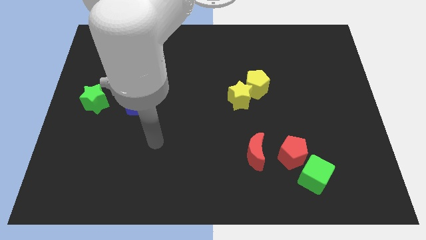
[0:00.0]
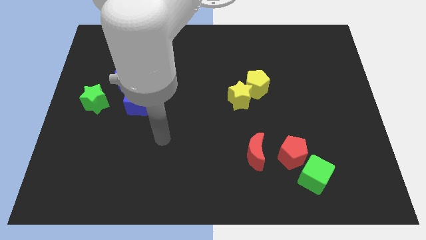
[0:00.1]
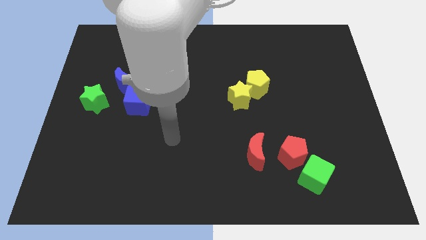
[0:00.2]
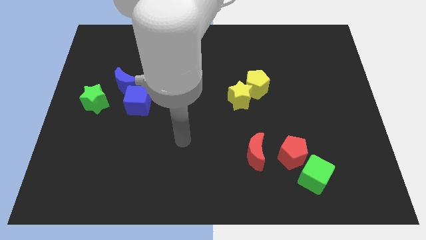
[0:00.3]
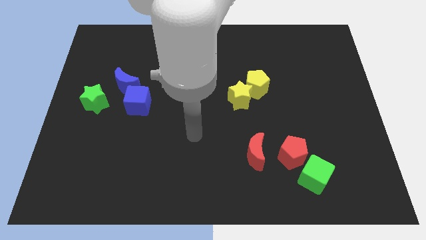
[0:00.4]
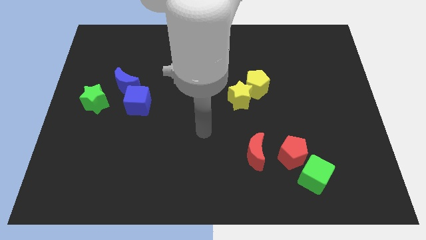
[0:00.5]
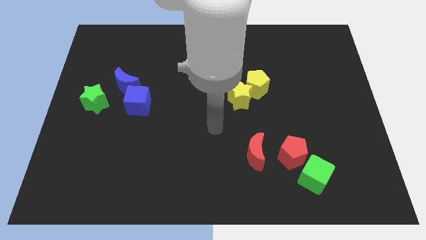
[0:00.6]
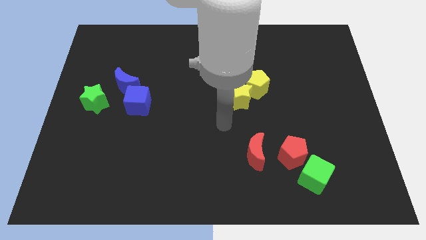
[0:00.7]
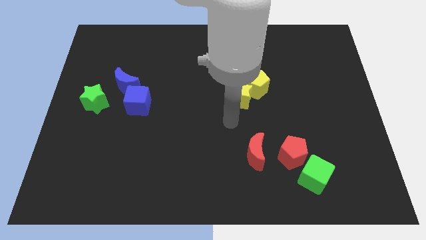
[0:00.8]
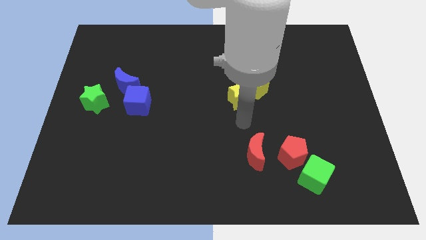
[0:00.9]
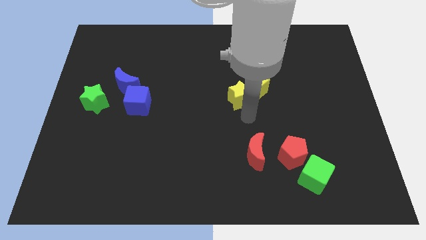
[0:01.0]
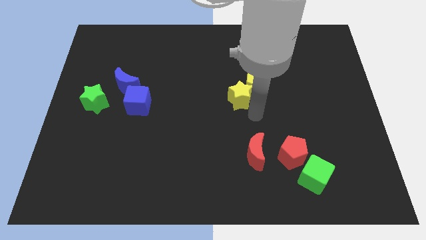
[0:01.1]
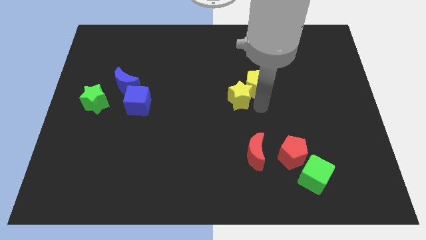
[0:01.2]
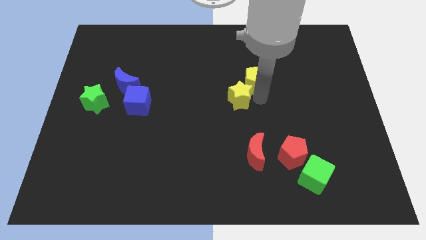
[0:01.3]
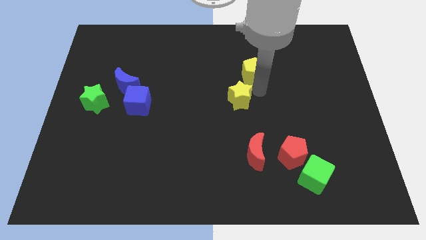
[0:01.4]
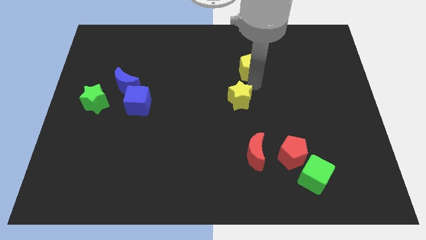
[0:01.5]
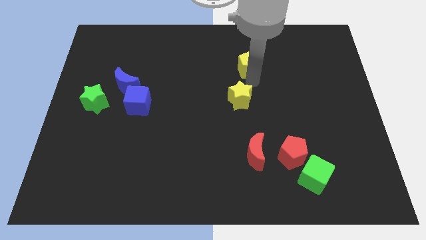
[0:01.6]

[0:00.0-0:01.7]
move the yellow star away from the yellow pentagon

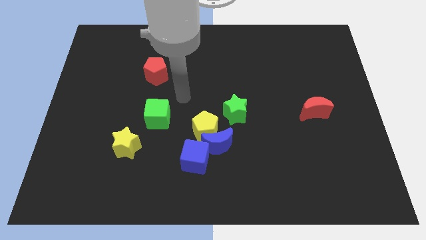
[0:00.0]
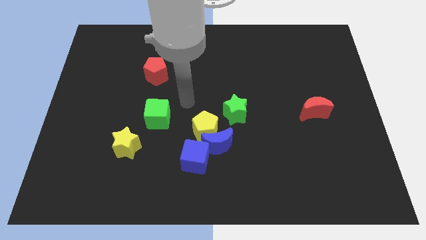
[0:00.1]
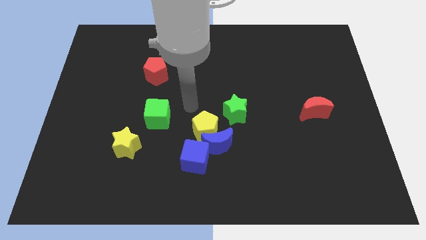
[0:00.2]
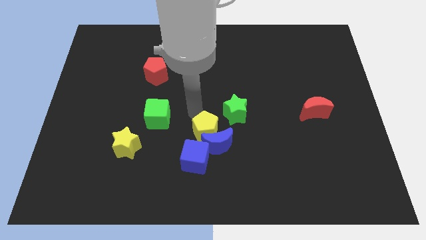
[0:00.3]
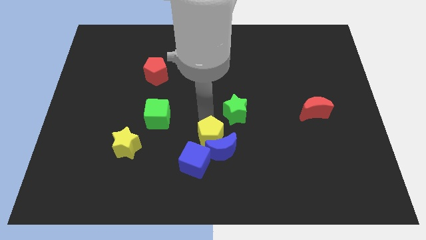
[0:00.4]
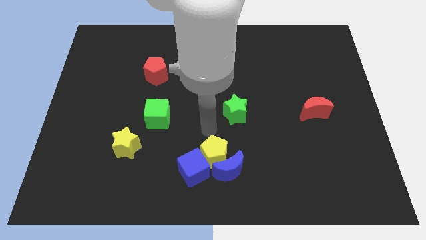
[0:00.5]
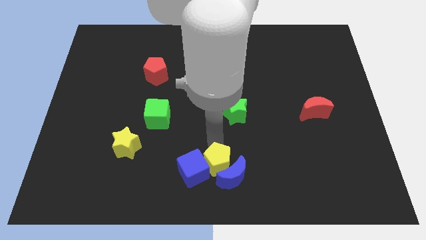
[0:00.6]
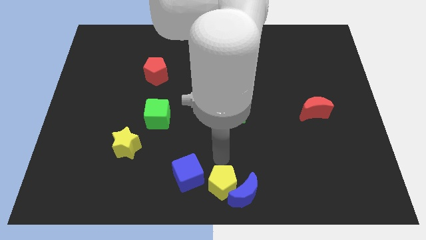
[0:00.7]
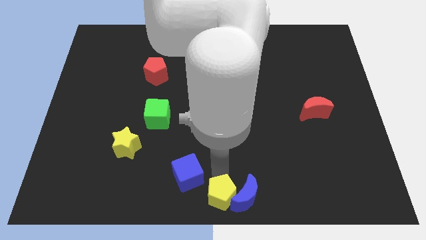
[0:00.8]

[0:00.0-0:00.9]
separate the blue cube from the blue moon and yellow pentagon

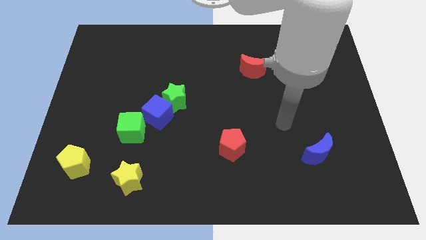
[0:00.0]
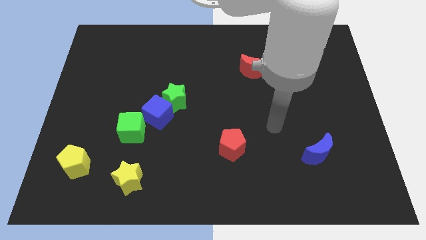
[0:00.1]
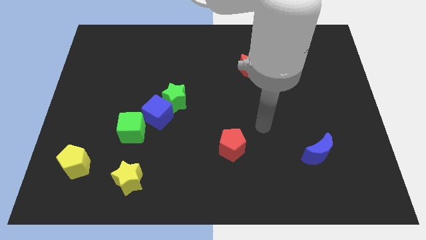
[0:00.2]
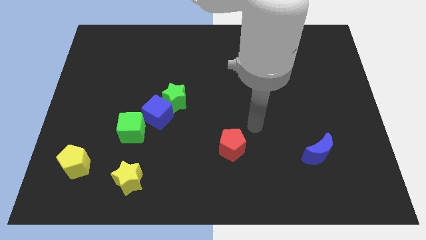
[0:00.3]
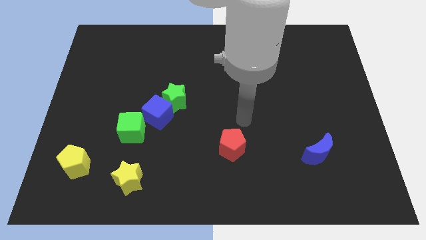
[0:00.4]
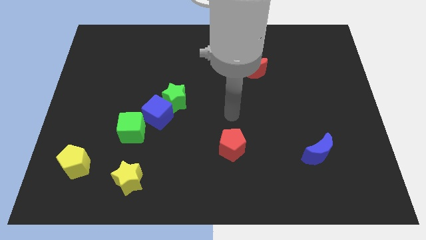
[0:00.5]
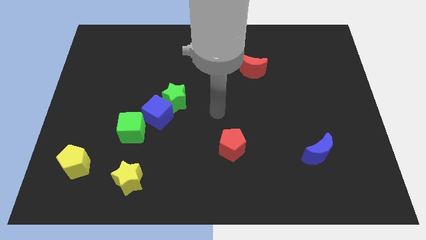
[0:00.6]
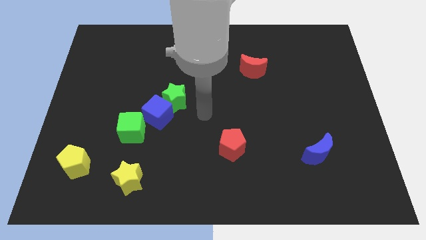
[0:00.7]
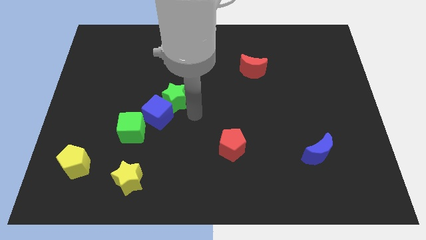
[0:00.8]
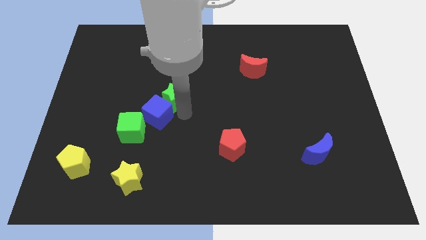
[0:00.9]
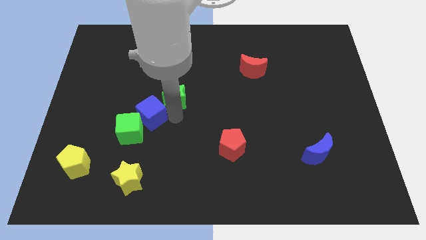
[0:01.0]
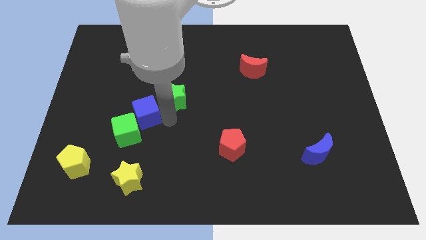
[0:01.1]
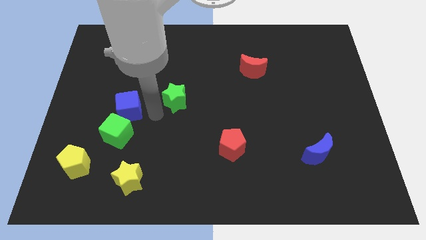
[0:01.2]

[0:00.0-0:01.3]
move the green star away from the blue cube

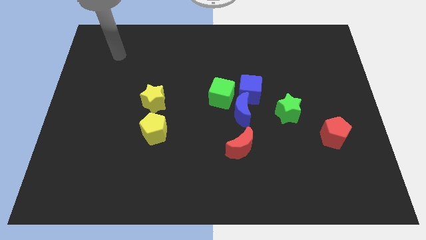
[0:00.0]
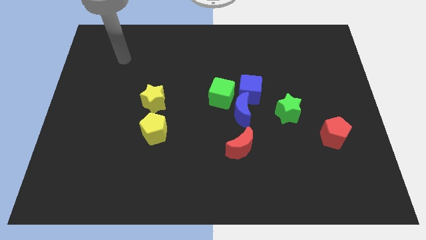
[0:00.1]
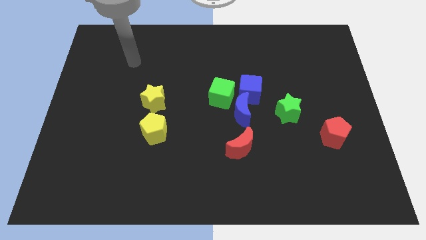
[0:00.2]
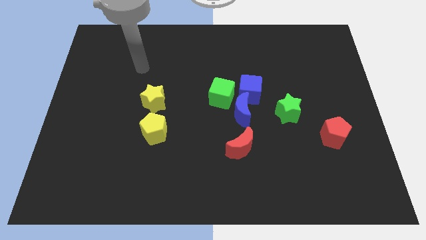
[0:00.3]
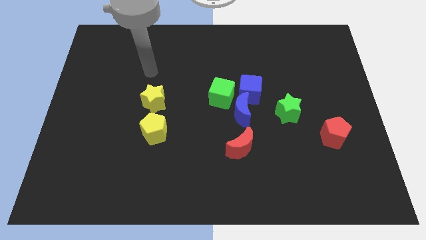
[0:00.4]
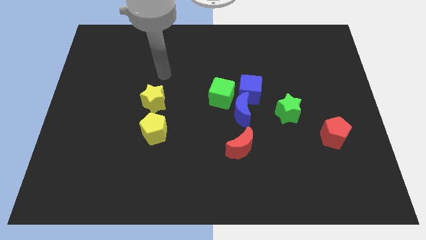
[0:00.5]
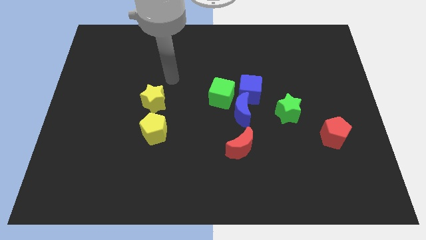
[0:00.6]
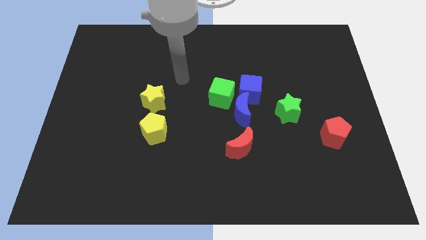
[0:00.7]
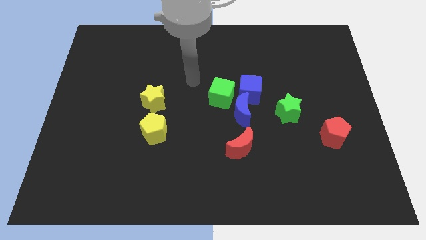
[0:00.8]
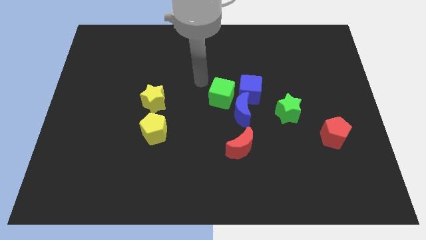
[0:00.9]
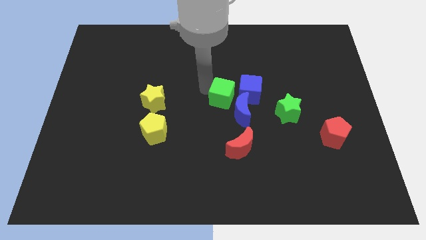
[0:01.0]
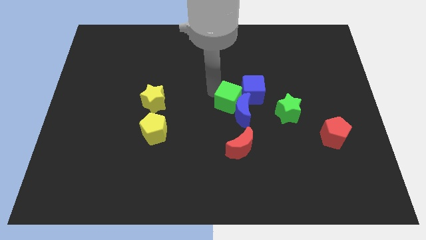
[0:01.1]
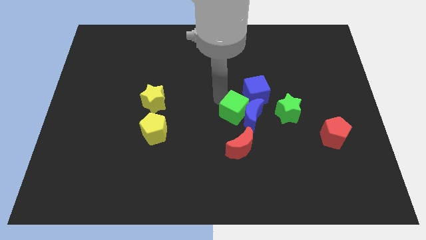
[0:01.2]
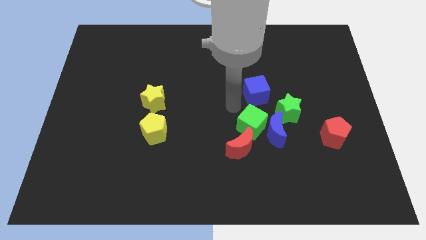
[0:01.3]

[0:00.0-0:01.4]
move the blue cube away from the blue moon and green cube

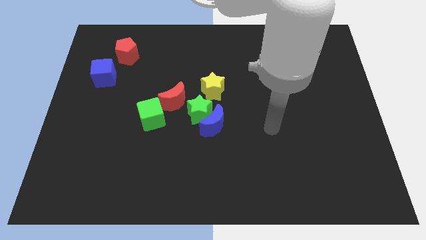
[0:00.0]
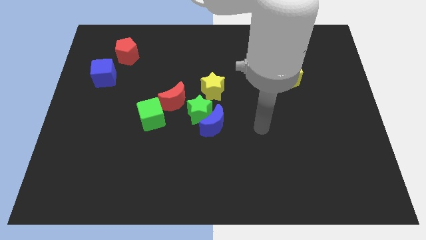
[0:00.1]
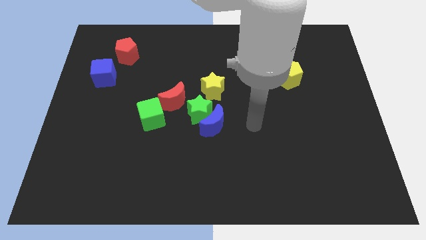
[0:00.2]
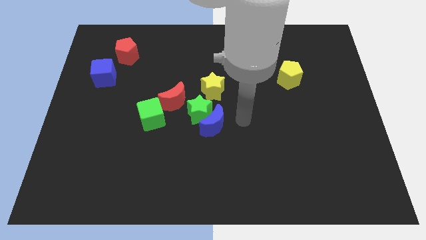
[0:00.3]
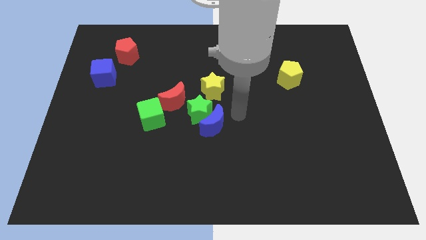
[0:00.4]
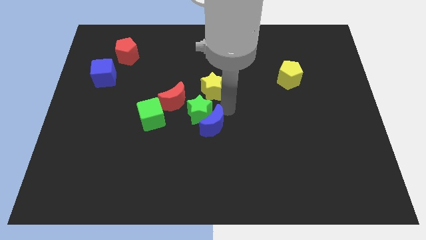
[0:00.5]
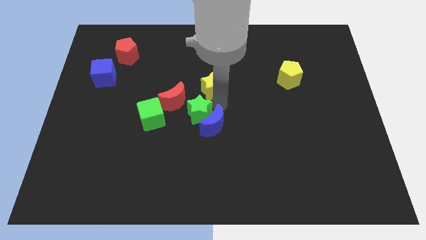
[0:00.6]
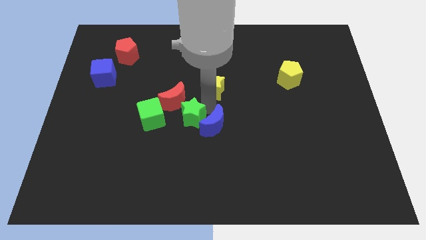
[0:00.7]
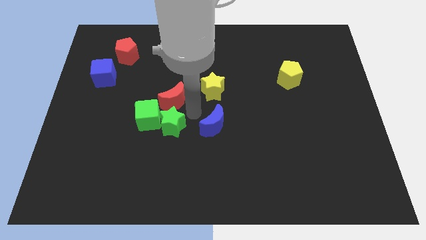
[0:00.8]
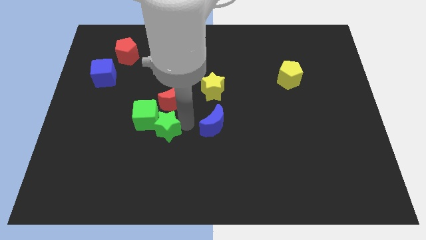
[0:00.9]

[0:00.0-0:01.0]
pull the blue moon apart from the green star

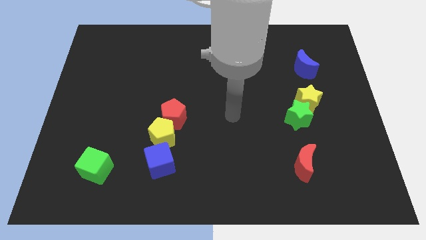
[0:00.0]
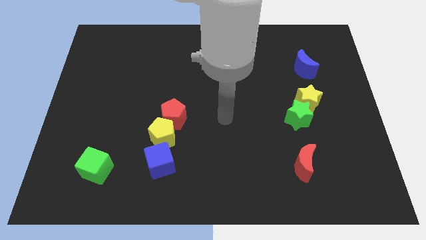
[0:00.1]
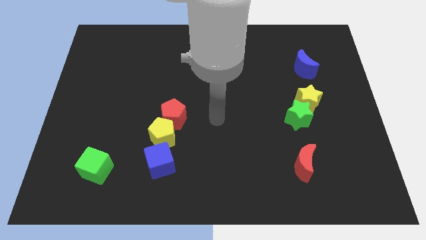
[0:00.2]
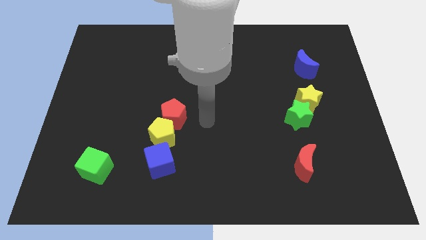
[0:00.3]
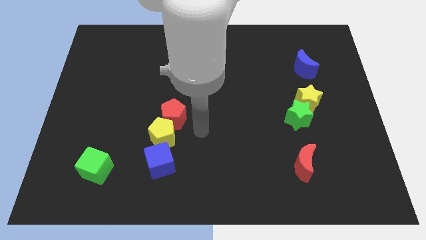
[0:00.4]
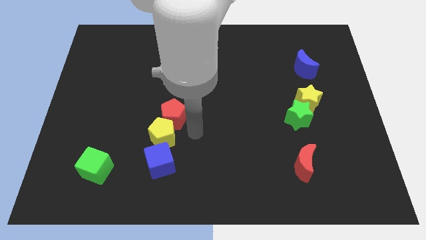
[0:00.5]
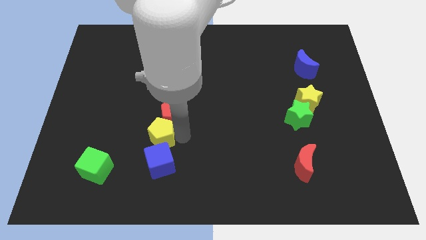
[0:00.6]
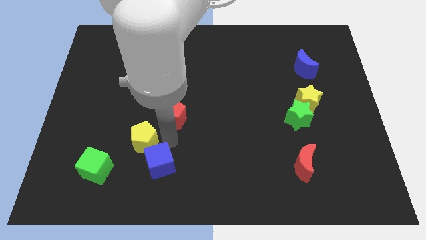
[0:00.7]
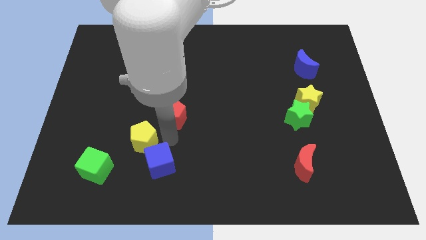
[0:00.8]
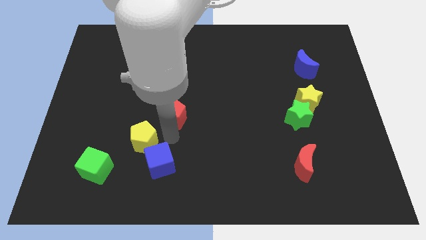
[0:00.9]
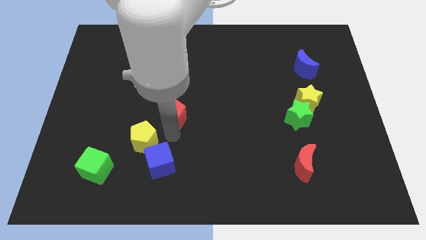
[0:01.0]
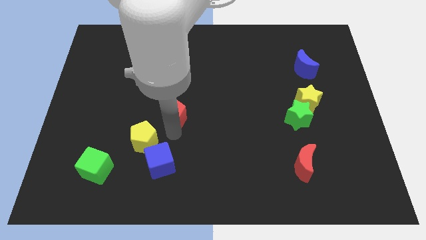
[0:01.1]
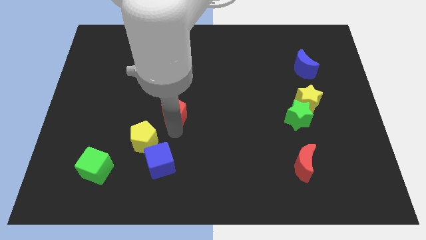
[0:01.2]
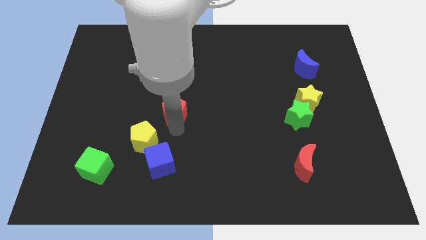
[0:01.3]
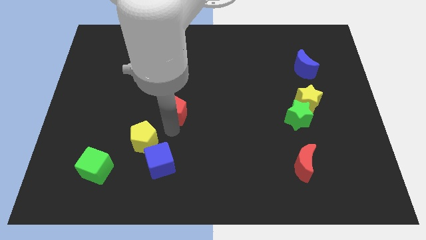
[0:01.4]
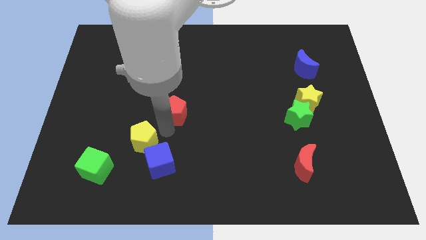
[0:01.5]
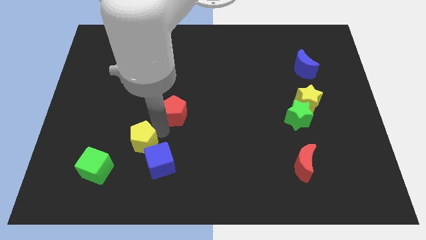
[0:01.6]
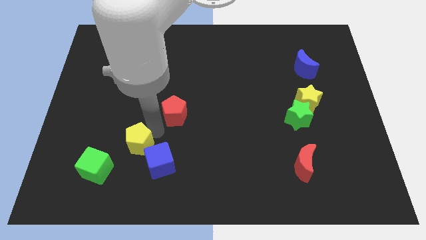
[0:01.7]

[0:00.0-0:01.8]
separate the red pentagon from the yellow pentagon

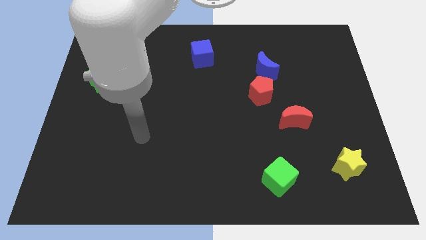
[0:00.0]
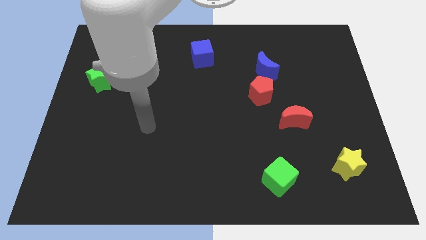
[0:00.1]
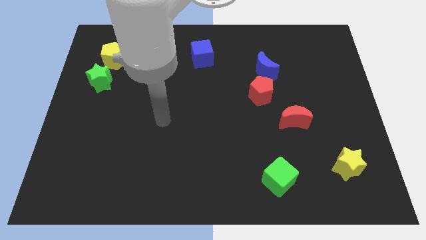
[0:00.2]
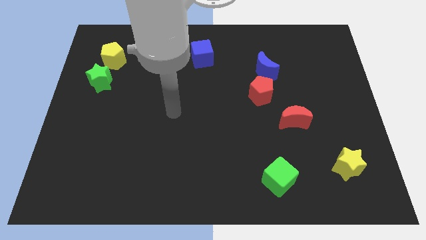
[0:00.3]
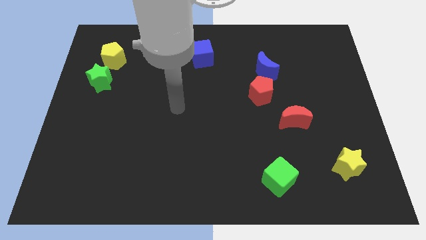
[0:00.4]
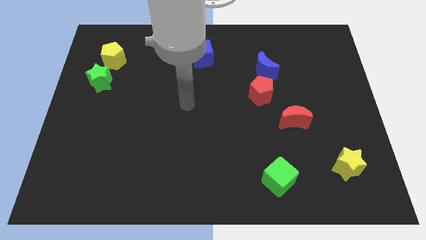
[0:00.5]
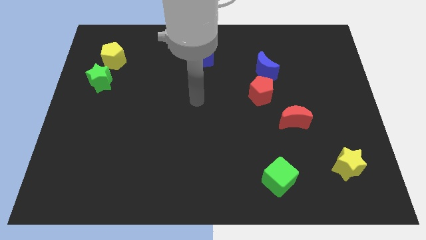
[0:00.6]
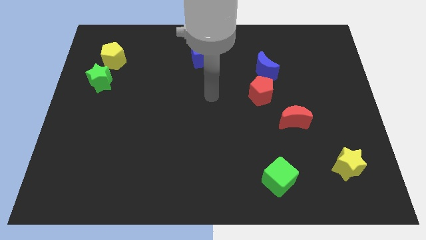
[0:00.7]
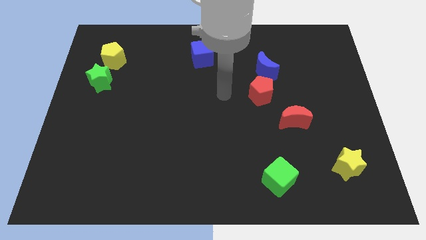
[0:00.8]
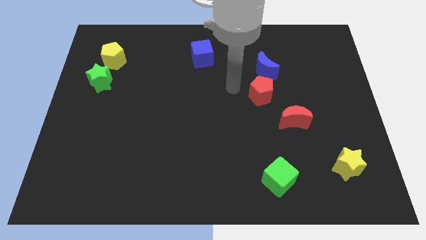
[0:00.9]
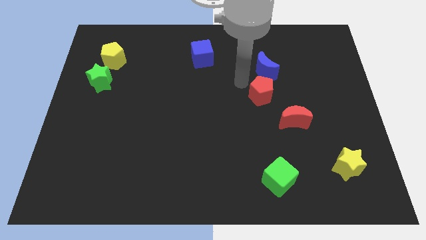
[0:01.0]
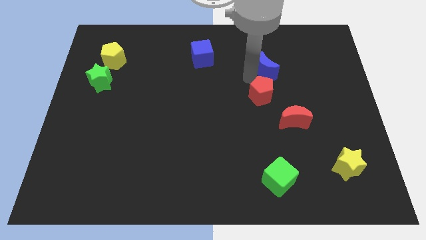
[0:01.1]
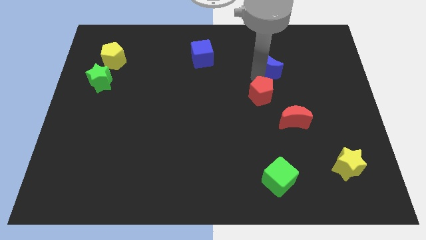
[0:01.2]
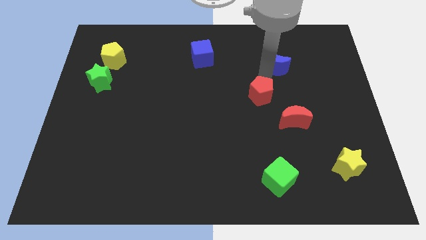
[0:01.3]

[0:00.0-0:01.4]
move the red pentagon away from the blue moon
